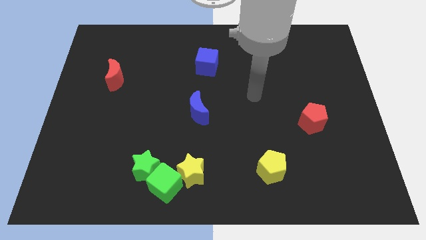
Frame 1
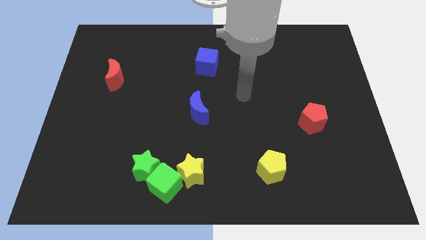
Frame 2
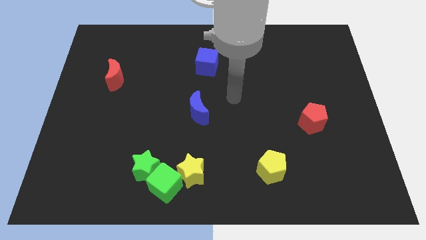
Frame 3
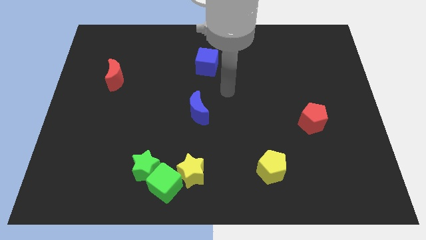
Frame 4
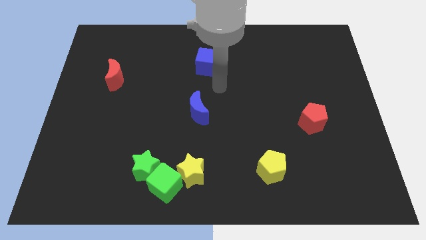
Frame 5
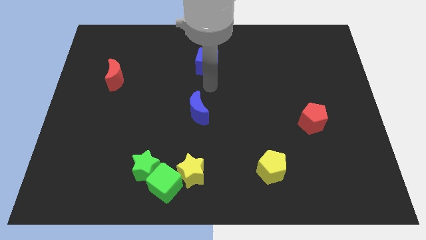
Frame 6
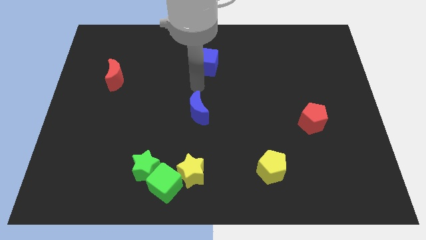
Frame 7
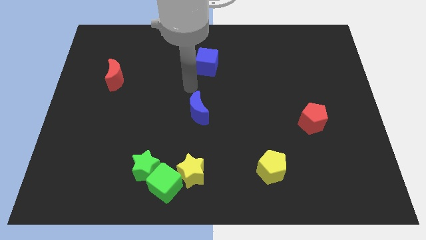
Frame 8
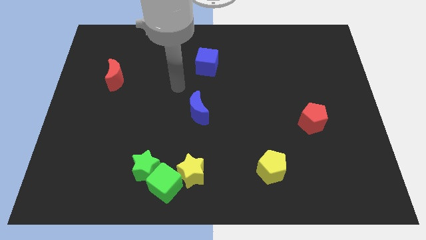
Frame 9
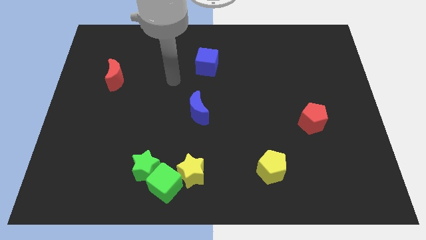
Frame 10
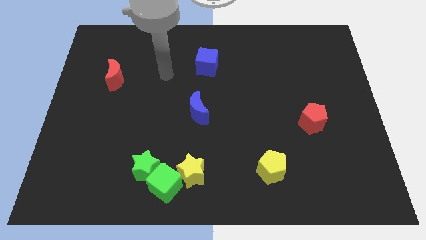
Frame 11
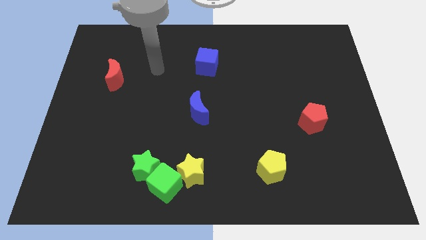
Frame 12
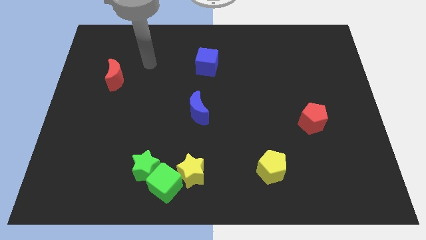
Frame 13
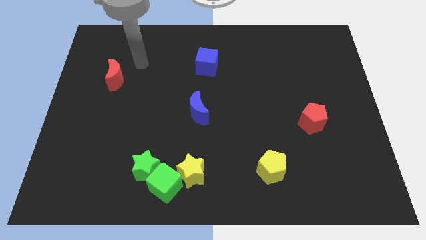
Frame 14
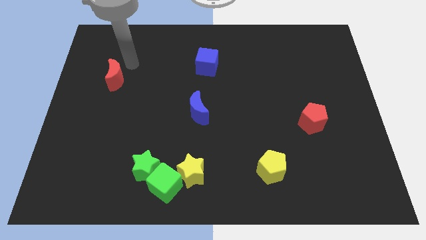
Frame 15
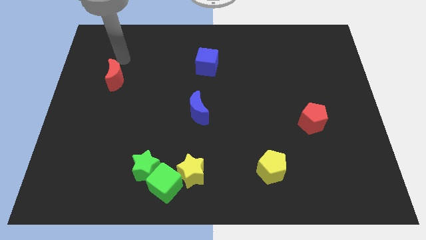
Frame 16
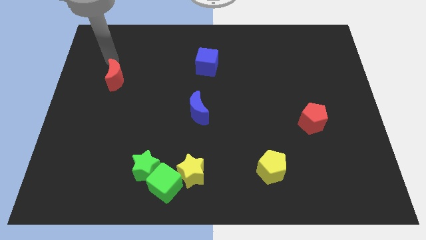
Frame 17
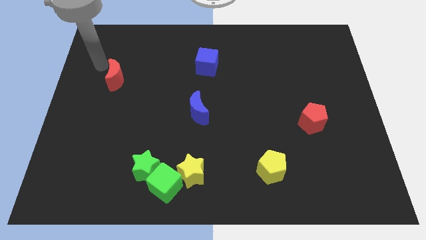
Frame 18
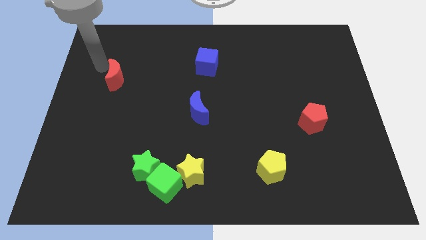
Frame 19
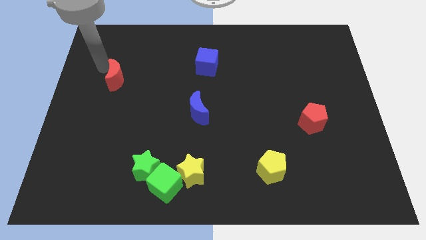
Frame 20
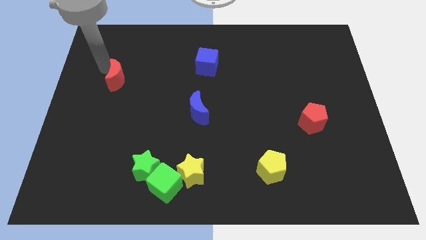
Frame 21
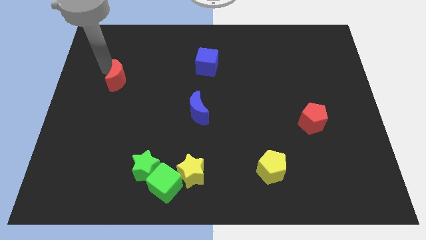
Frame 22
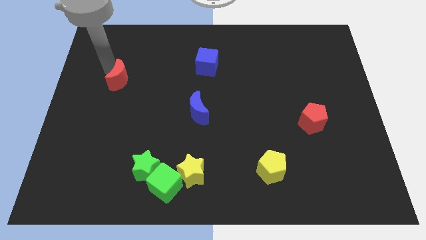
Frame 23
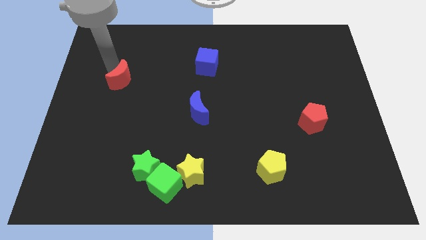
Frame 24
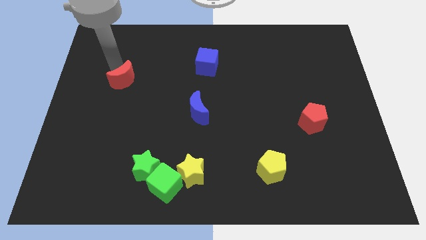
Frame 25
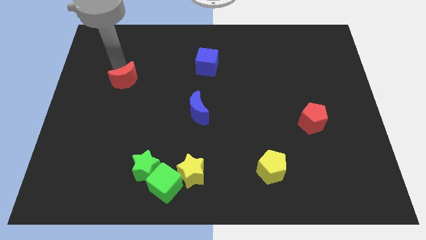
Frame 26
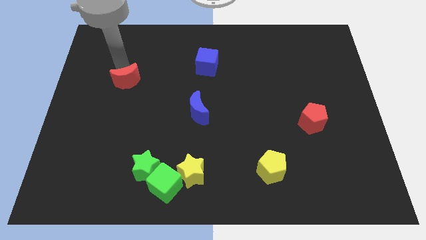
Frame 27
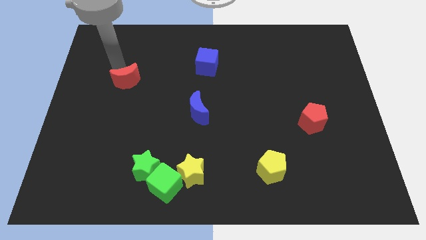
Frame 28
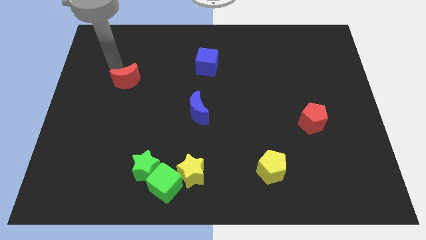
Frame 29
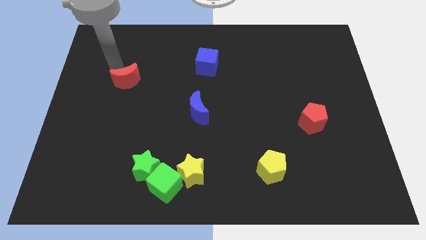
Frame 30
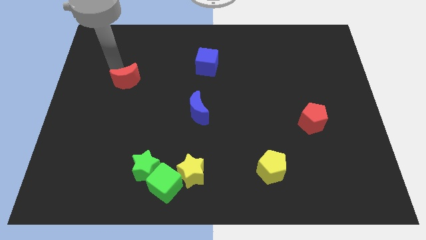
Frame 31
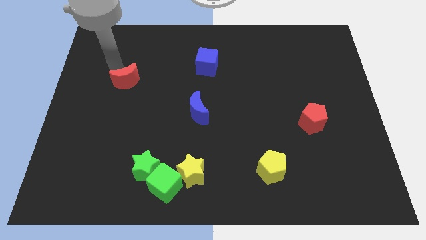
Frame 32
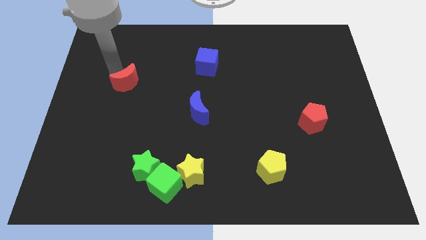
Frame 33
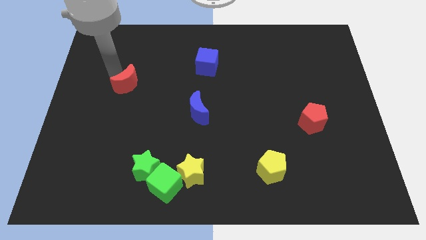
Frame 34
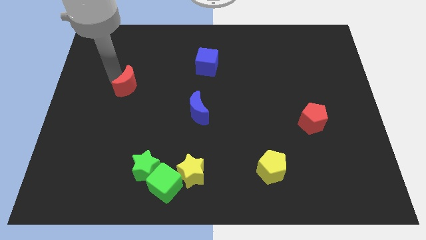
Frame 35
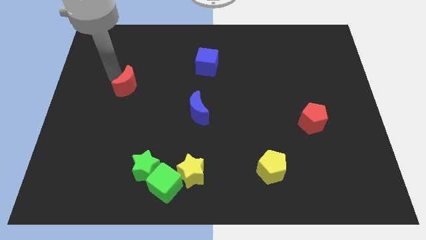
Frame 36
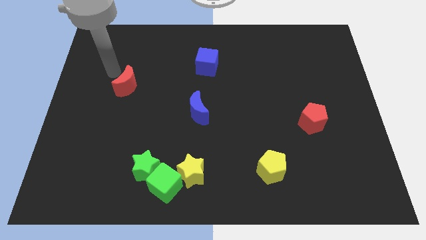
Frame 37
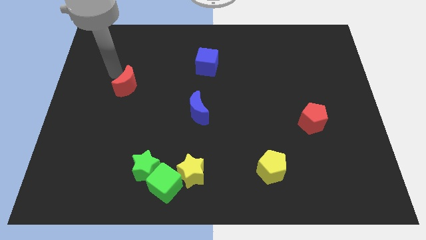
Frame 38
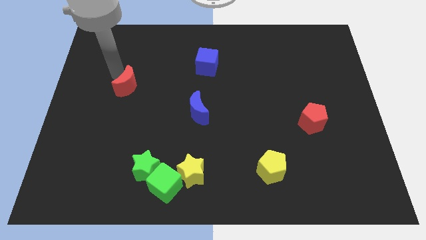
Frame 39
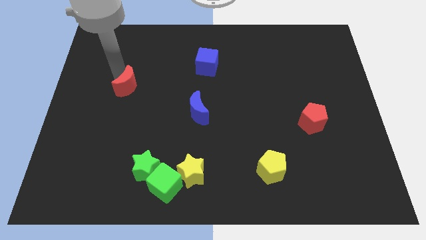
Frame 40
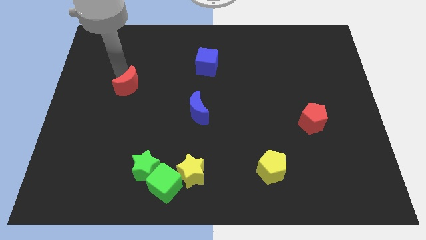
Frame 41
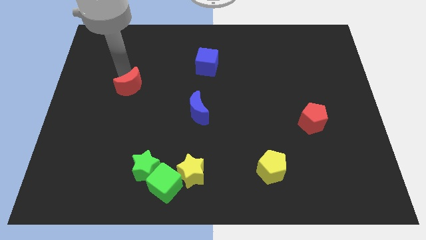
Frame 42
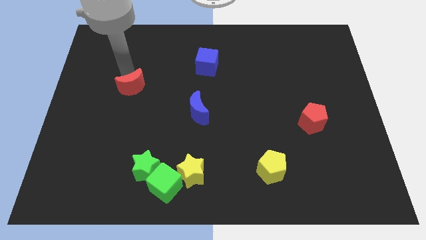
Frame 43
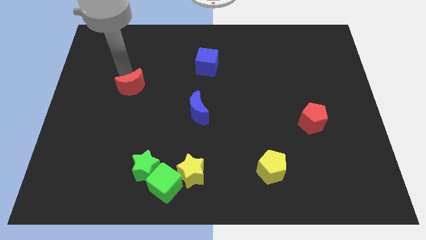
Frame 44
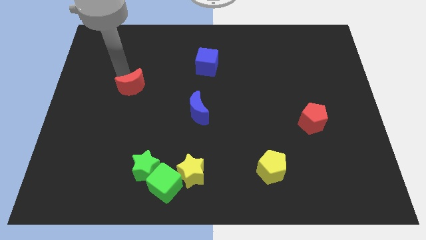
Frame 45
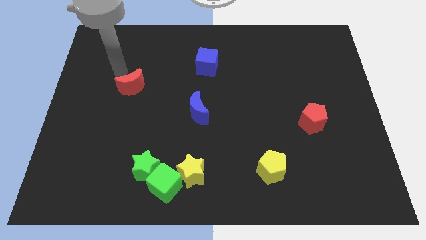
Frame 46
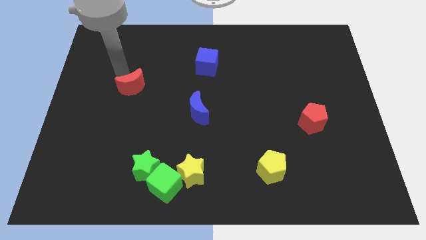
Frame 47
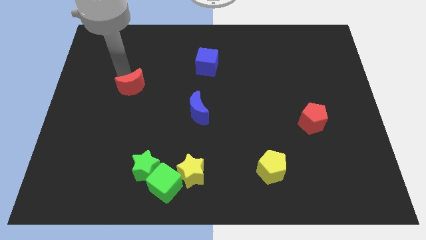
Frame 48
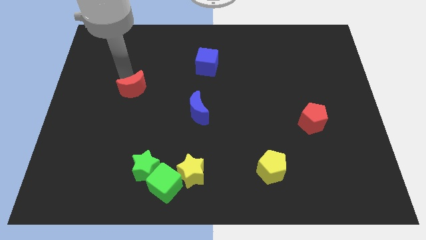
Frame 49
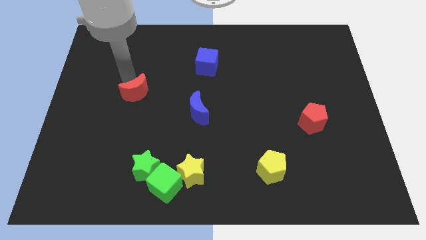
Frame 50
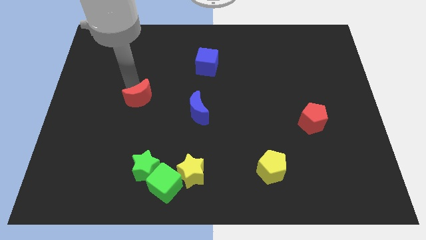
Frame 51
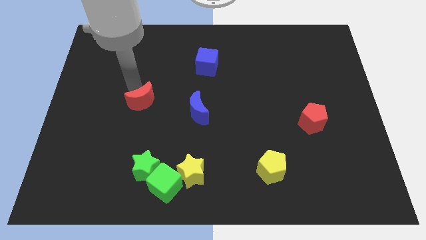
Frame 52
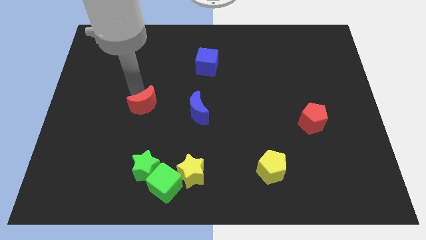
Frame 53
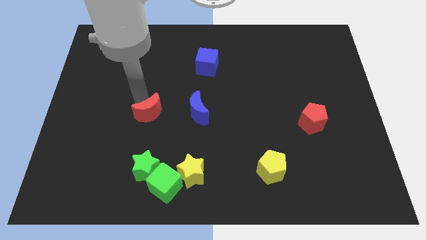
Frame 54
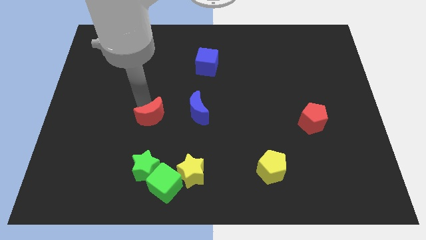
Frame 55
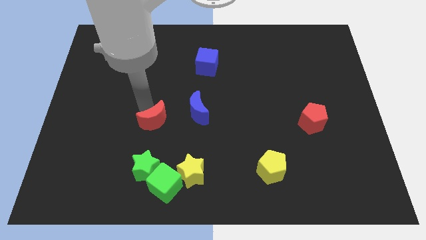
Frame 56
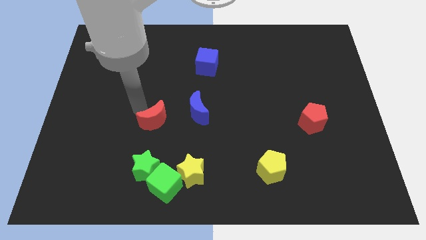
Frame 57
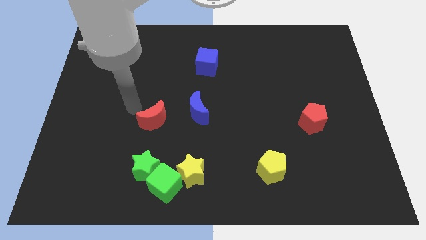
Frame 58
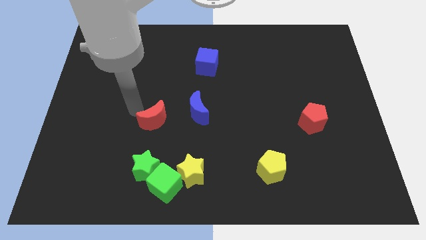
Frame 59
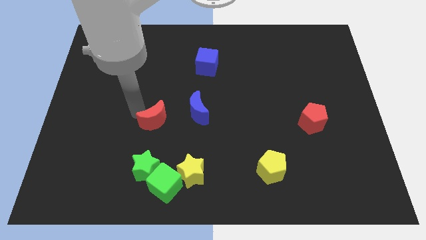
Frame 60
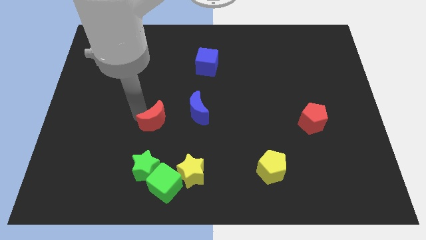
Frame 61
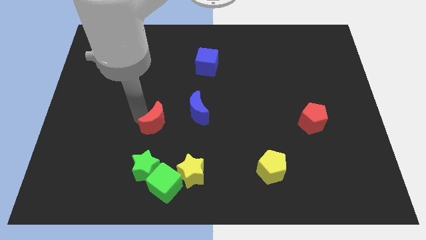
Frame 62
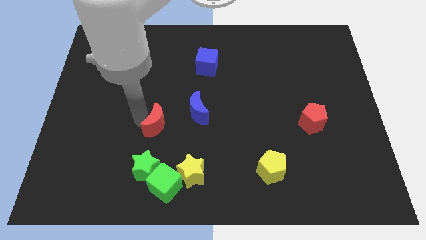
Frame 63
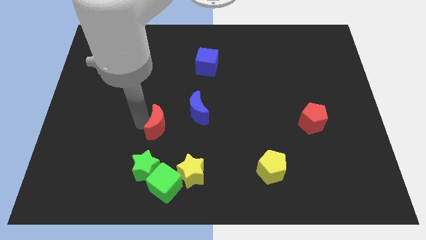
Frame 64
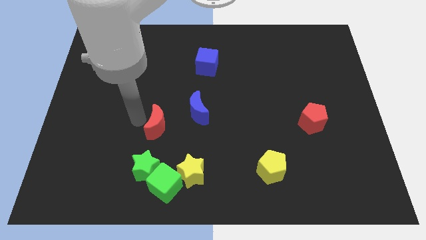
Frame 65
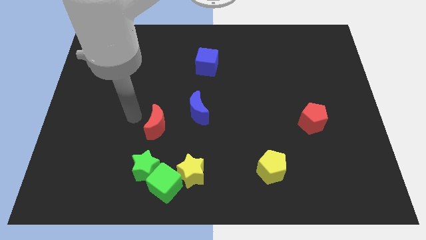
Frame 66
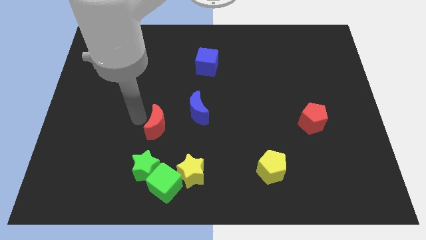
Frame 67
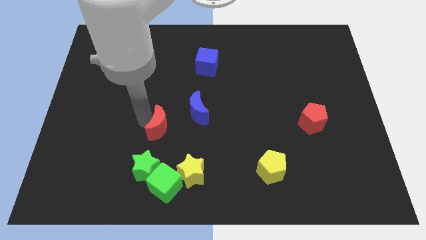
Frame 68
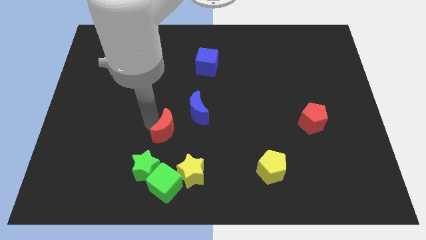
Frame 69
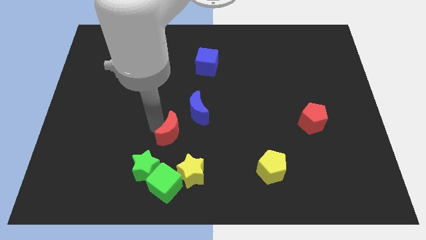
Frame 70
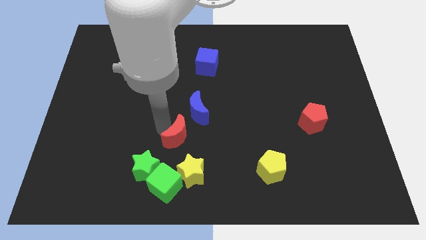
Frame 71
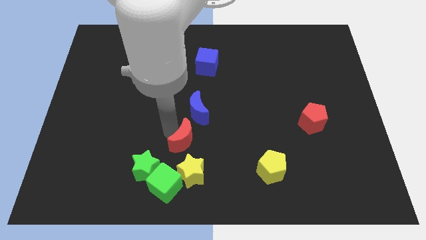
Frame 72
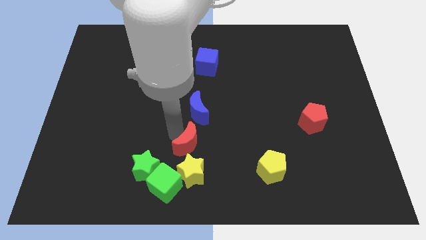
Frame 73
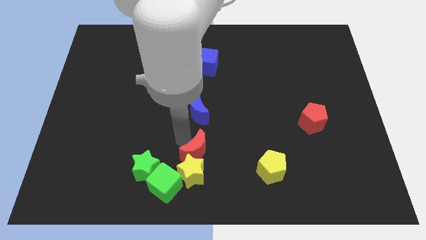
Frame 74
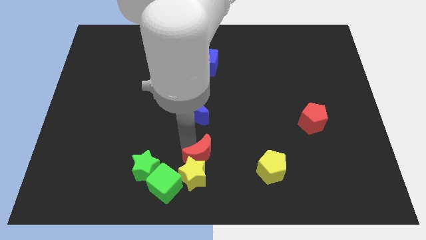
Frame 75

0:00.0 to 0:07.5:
move the red moon to the bottom side
